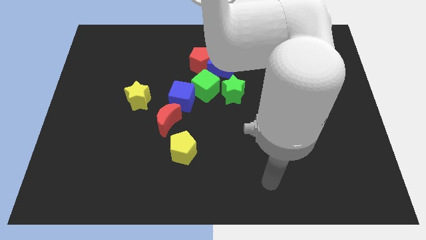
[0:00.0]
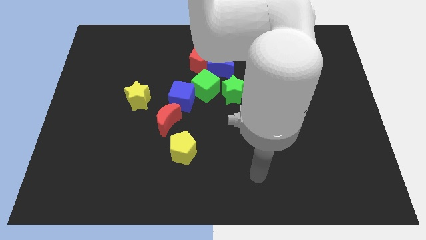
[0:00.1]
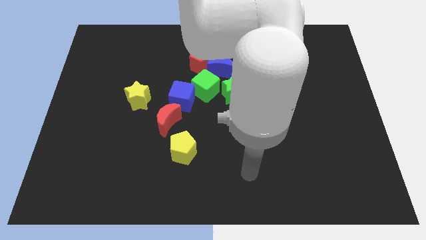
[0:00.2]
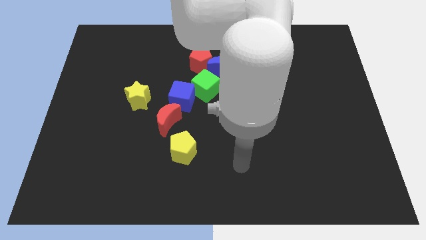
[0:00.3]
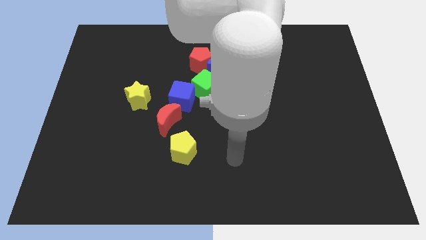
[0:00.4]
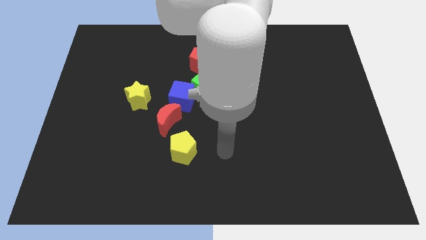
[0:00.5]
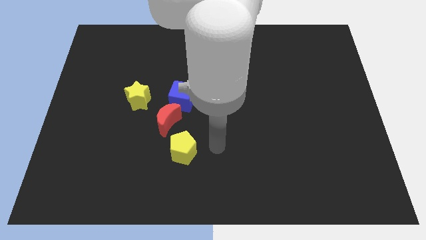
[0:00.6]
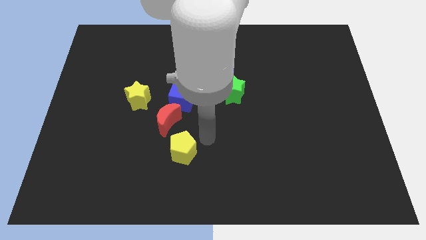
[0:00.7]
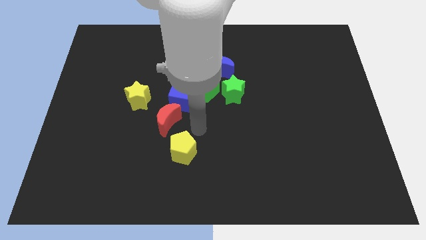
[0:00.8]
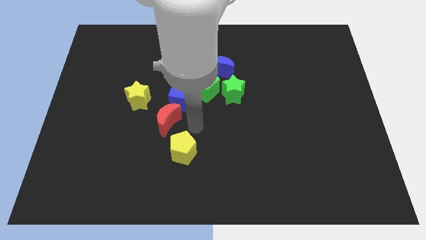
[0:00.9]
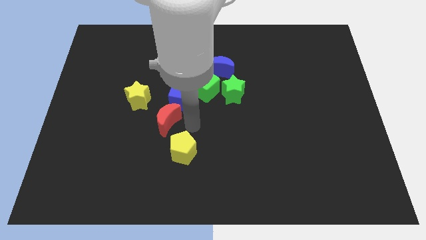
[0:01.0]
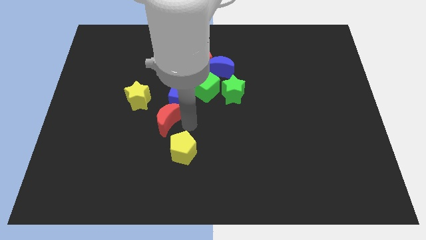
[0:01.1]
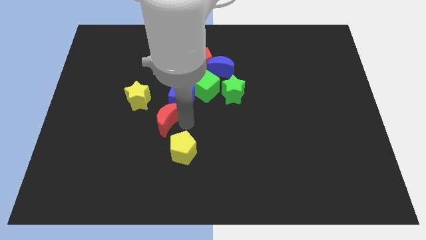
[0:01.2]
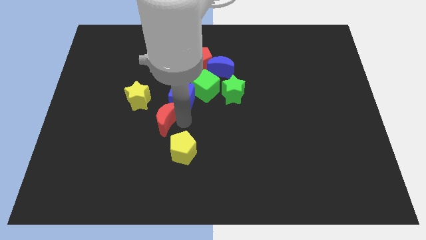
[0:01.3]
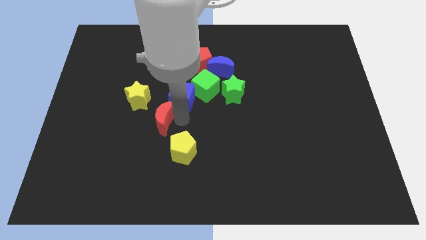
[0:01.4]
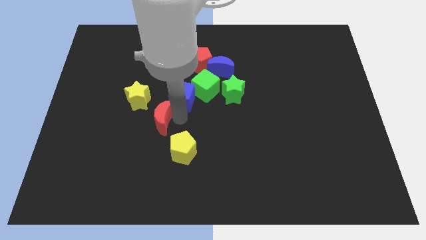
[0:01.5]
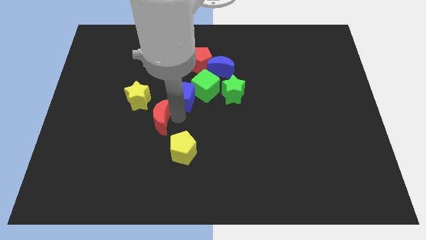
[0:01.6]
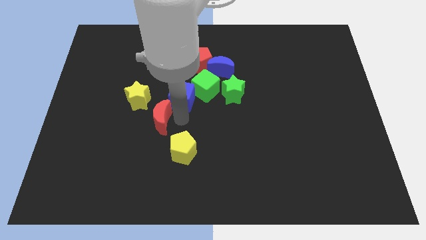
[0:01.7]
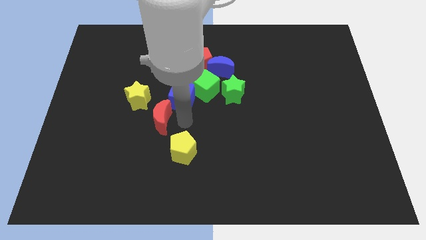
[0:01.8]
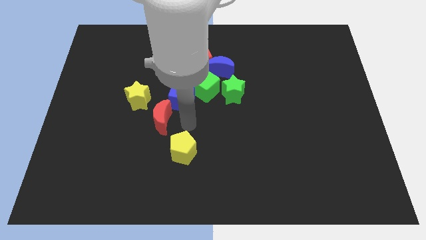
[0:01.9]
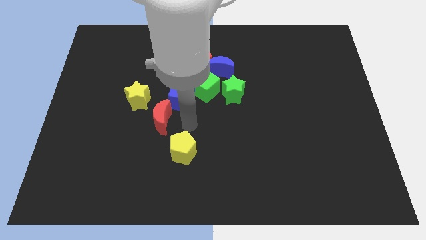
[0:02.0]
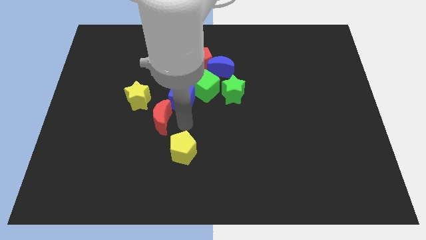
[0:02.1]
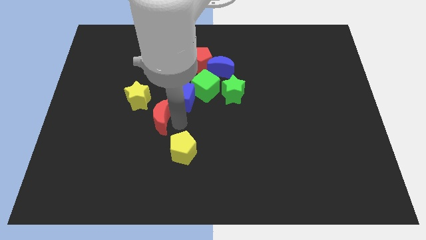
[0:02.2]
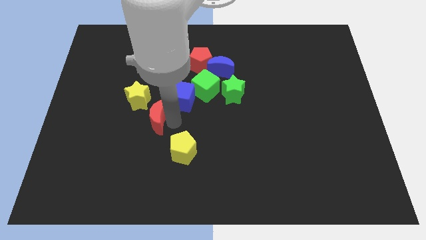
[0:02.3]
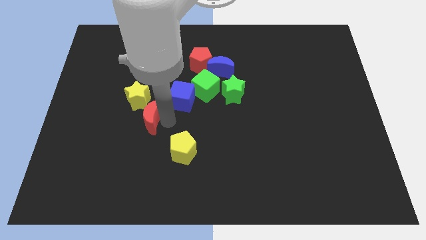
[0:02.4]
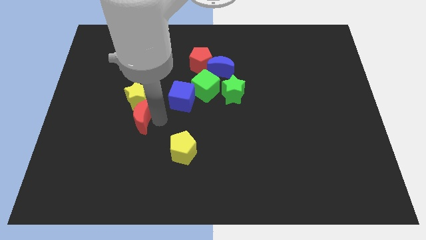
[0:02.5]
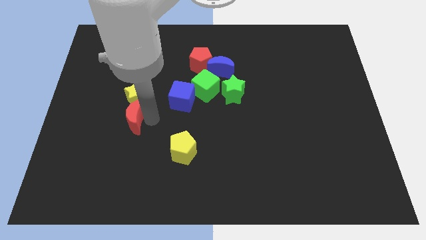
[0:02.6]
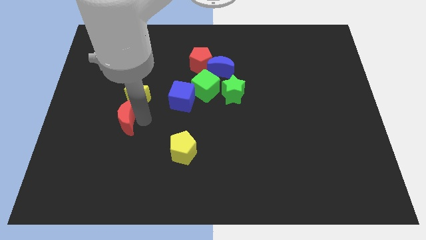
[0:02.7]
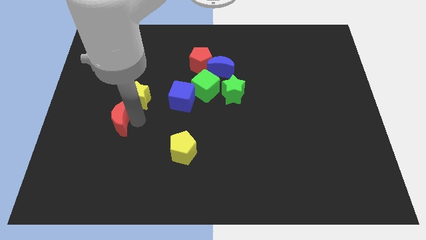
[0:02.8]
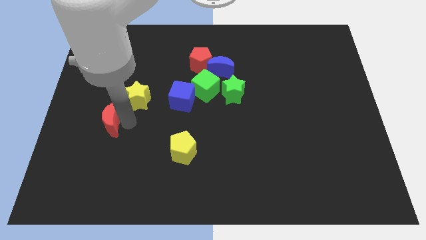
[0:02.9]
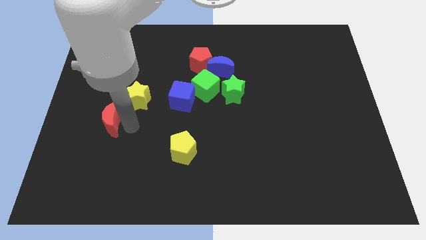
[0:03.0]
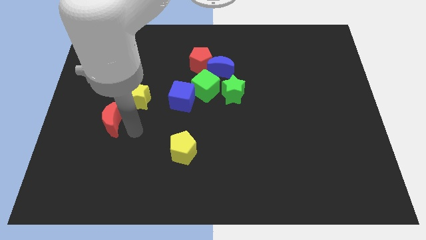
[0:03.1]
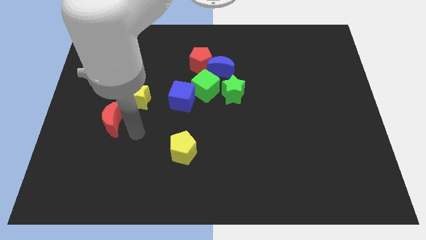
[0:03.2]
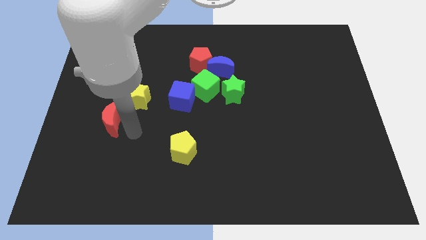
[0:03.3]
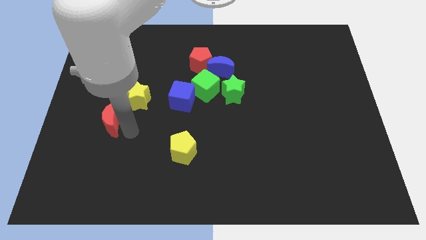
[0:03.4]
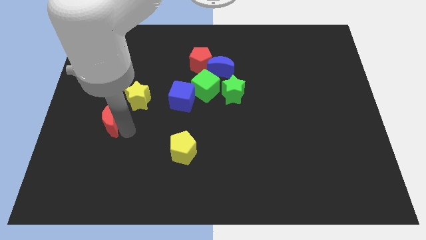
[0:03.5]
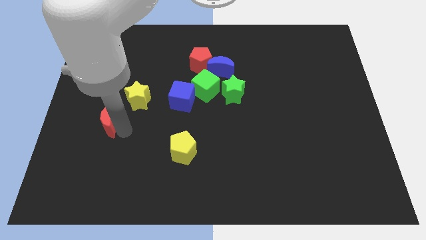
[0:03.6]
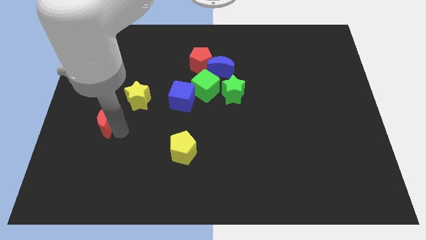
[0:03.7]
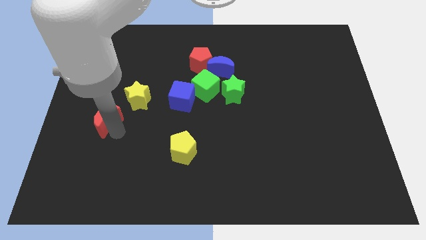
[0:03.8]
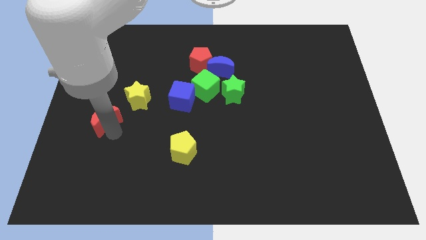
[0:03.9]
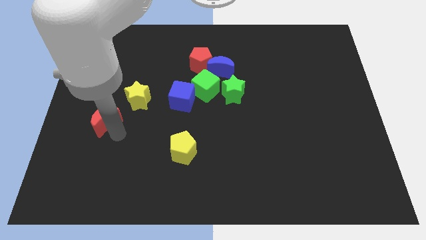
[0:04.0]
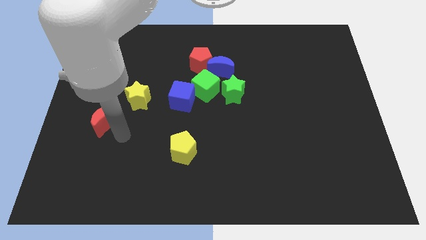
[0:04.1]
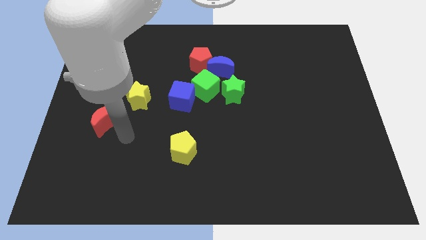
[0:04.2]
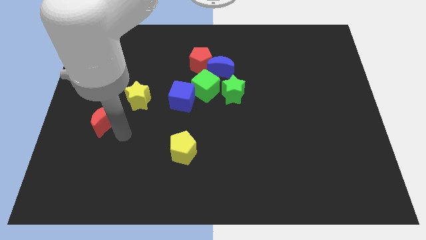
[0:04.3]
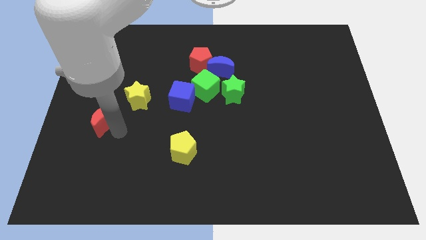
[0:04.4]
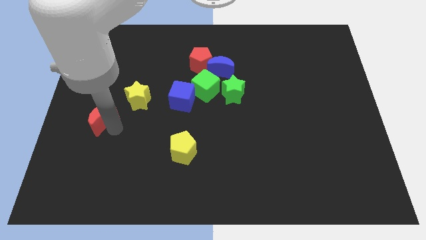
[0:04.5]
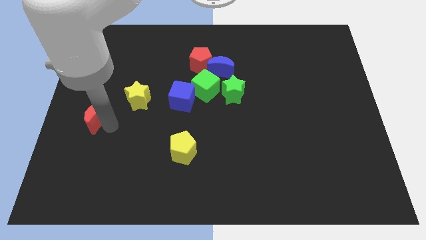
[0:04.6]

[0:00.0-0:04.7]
slide the red moon to the center left

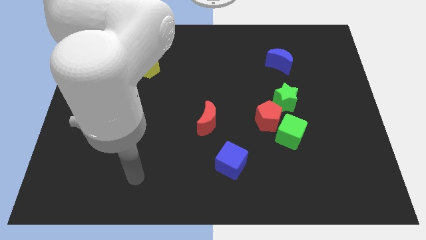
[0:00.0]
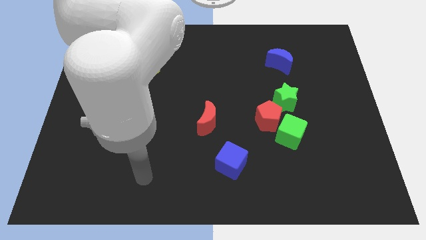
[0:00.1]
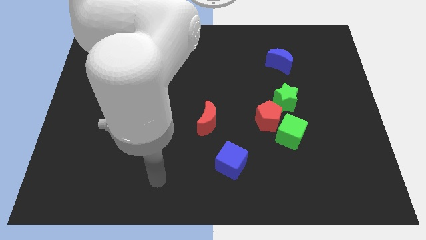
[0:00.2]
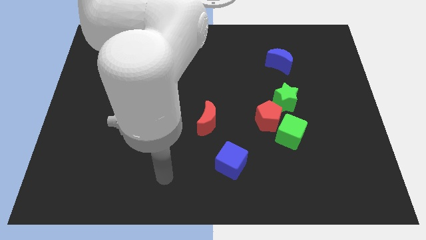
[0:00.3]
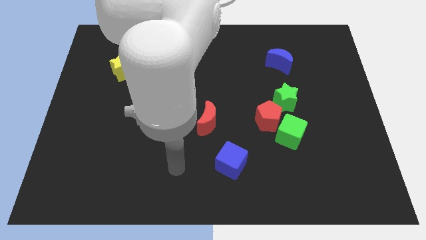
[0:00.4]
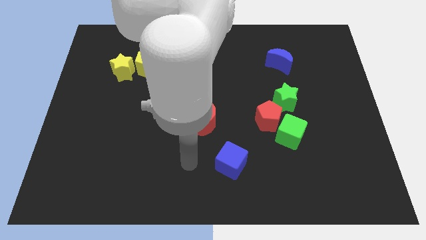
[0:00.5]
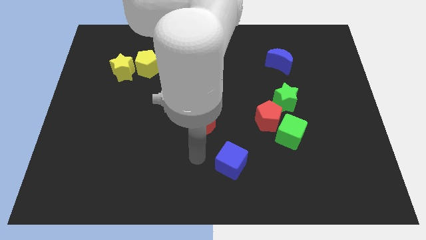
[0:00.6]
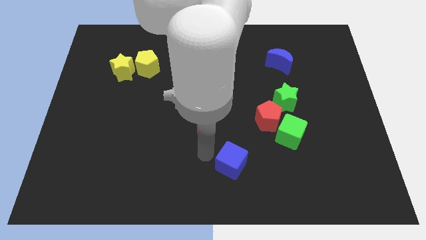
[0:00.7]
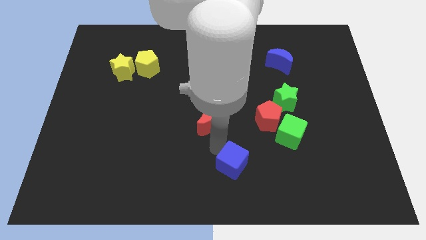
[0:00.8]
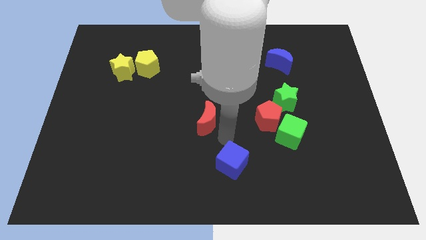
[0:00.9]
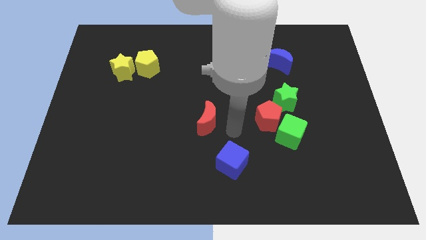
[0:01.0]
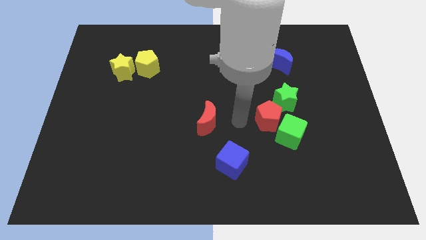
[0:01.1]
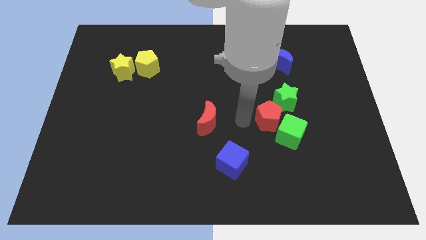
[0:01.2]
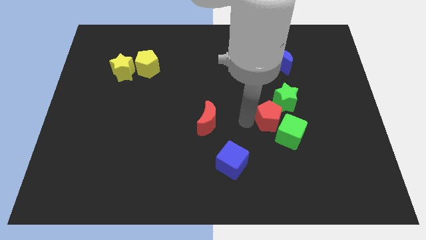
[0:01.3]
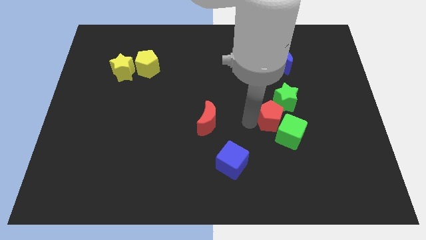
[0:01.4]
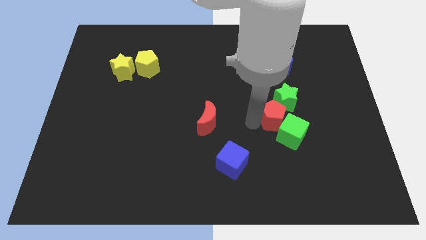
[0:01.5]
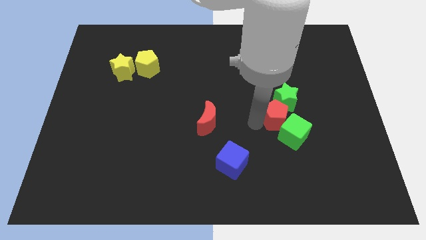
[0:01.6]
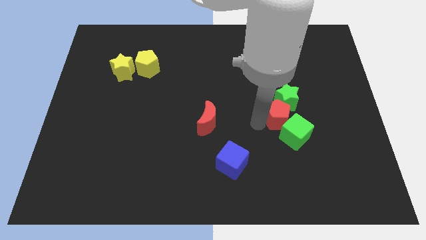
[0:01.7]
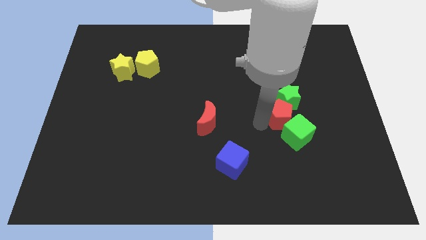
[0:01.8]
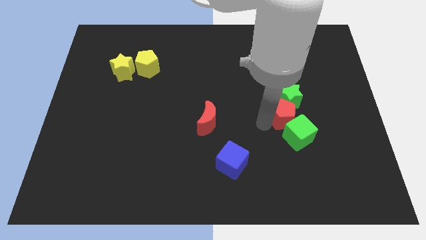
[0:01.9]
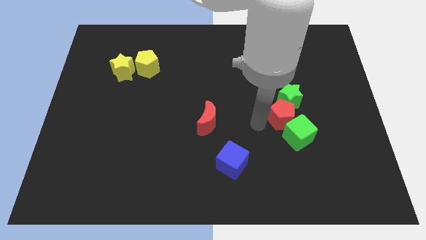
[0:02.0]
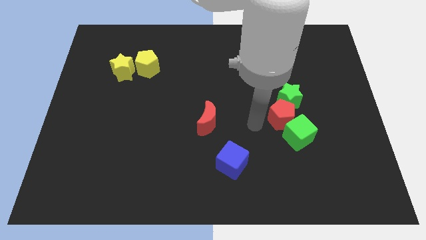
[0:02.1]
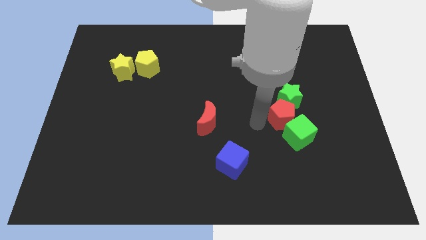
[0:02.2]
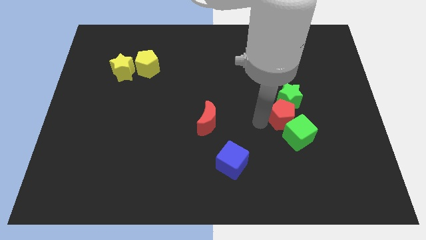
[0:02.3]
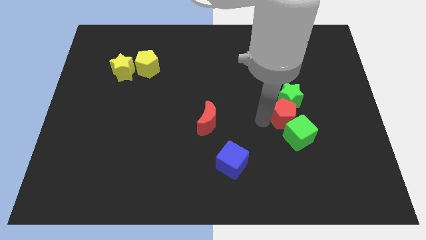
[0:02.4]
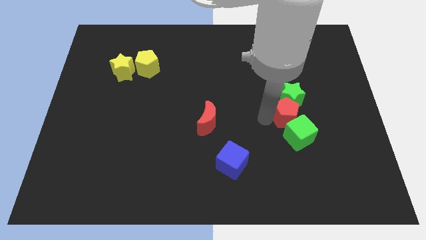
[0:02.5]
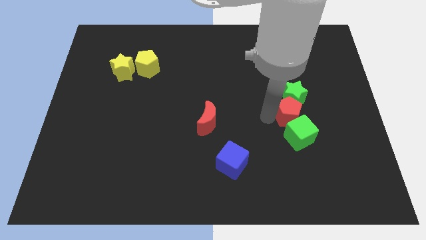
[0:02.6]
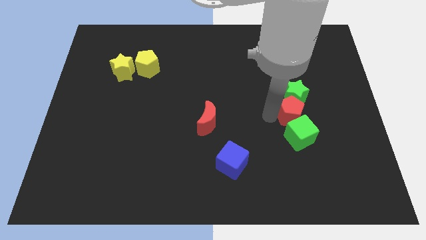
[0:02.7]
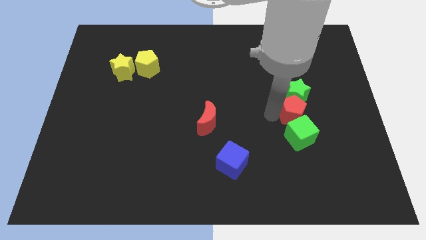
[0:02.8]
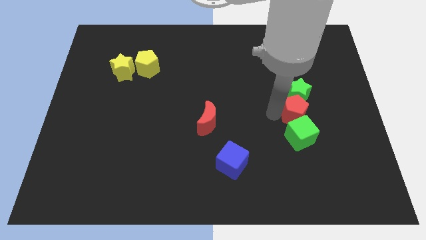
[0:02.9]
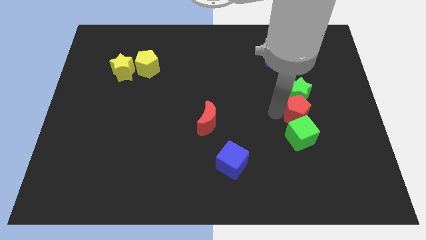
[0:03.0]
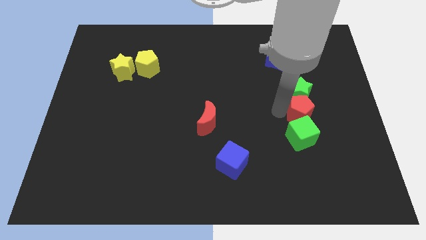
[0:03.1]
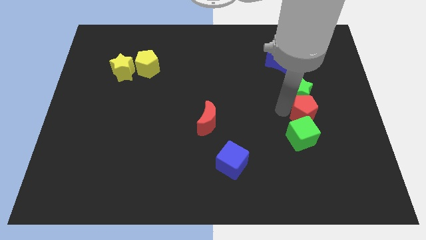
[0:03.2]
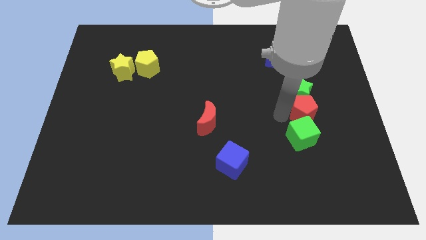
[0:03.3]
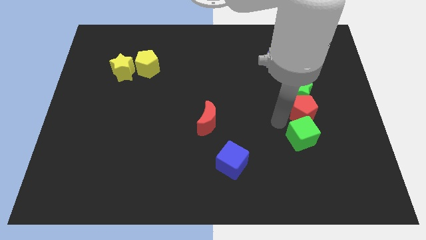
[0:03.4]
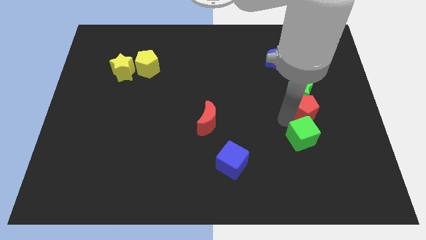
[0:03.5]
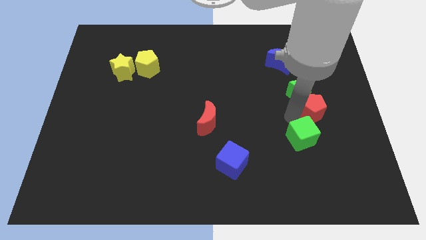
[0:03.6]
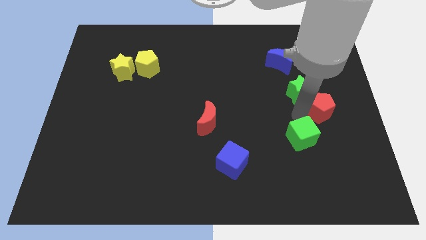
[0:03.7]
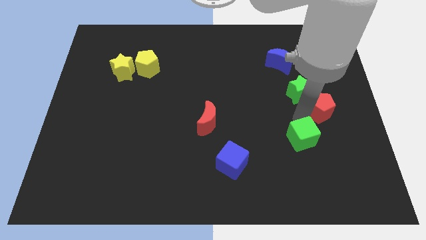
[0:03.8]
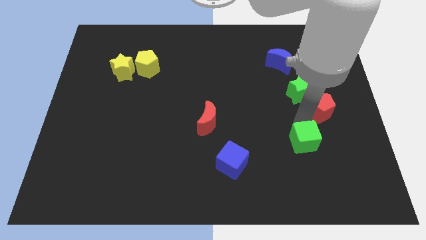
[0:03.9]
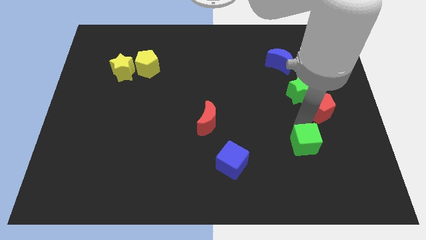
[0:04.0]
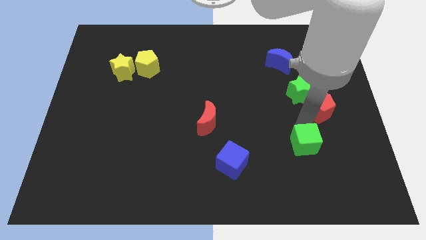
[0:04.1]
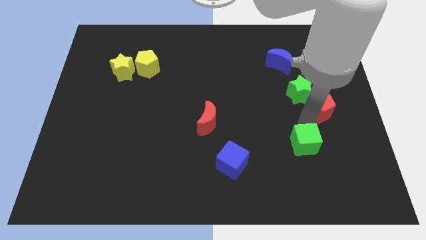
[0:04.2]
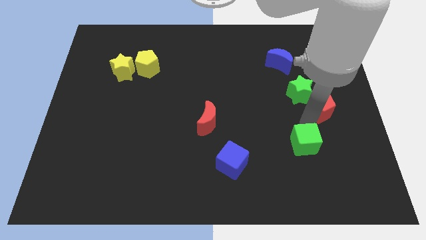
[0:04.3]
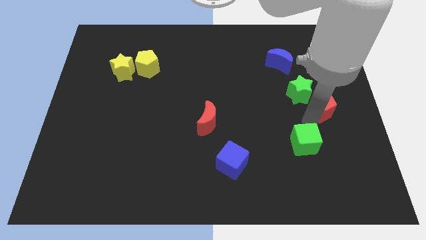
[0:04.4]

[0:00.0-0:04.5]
slide the red pentagon to the right side
